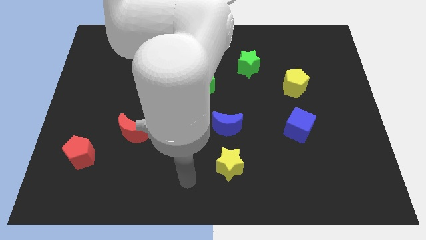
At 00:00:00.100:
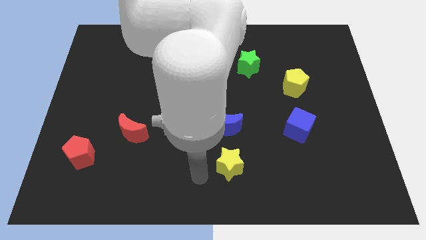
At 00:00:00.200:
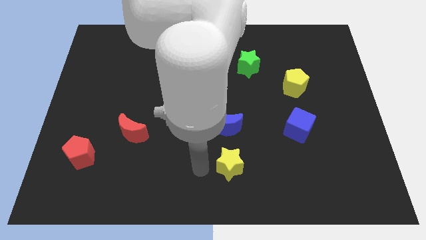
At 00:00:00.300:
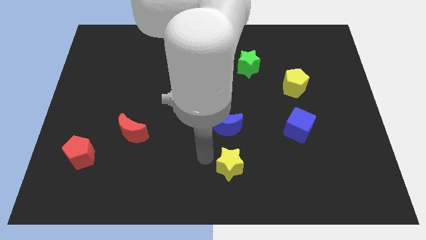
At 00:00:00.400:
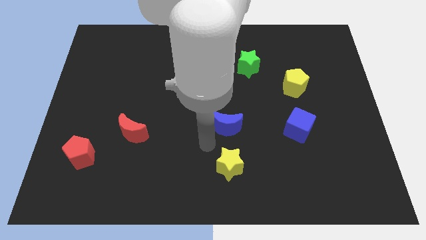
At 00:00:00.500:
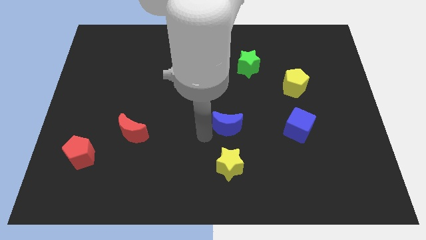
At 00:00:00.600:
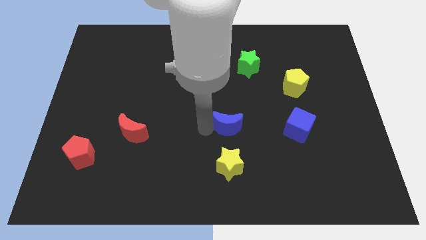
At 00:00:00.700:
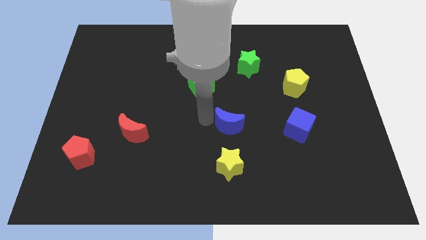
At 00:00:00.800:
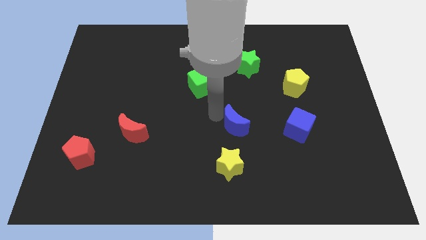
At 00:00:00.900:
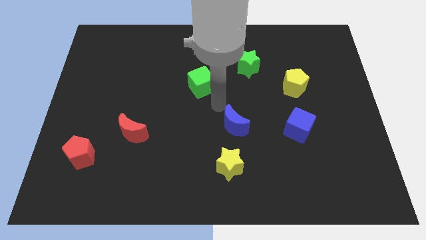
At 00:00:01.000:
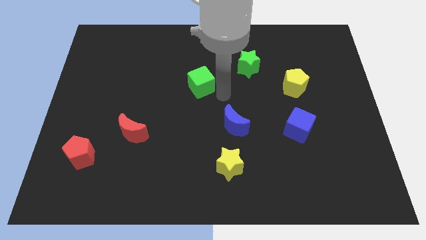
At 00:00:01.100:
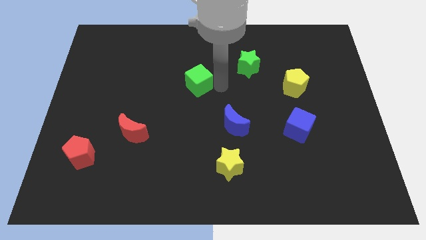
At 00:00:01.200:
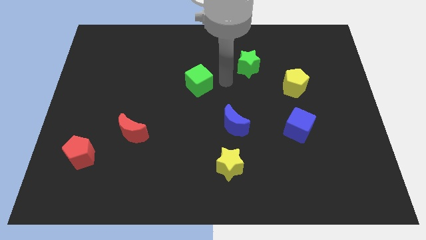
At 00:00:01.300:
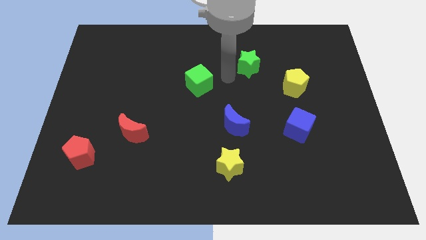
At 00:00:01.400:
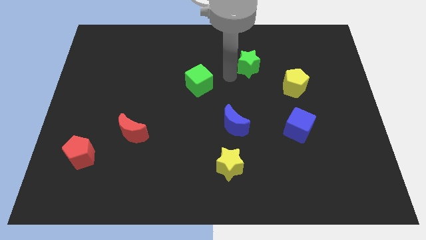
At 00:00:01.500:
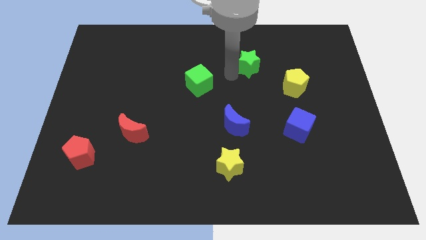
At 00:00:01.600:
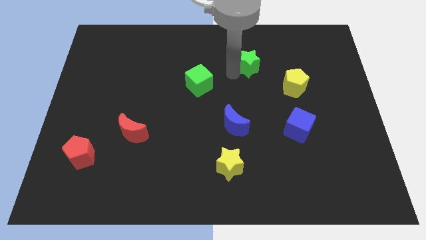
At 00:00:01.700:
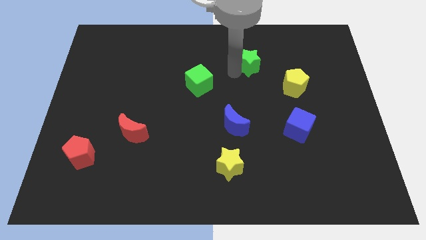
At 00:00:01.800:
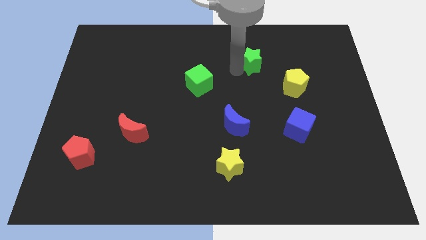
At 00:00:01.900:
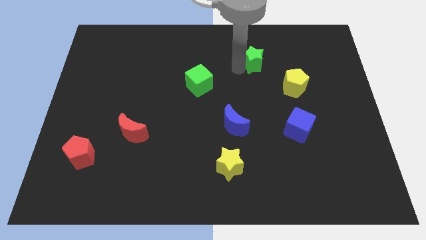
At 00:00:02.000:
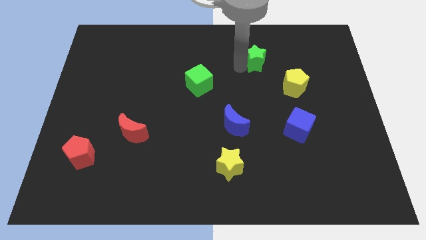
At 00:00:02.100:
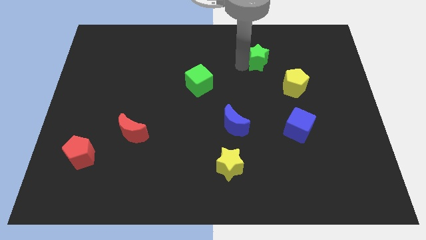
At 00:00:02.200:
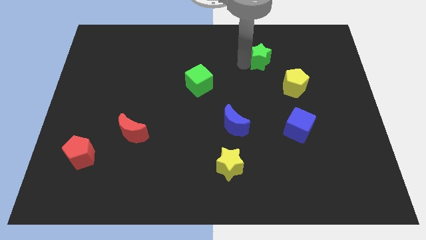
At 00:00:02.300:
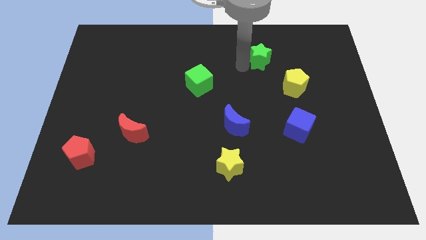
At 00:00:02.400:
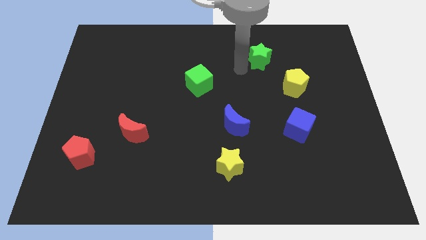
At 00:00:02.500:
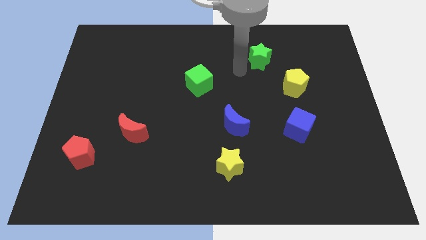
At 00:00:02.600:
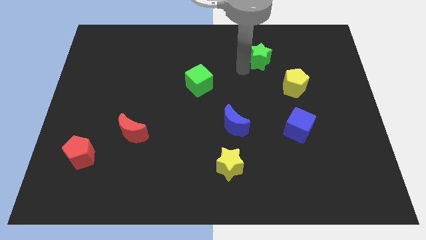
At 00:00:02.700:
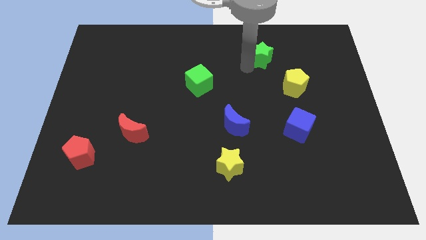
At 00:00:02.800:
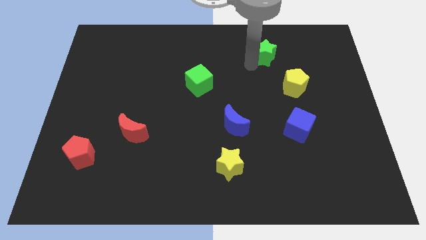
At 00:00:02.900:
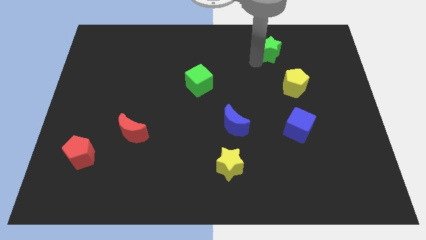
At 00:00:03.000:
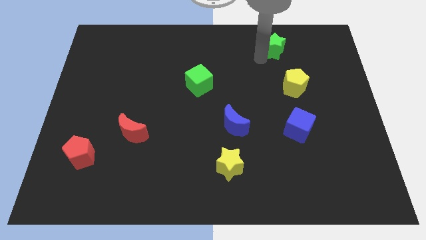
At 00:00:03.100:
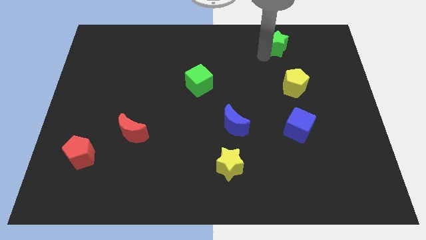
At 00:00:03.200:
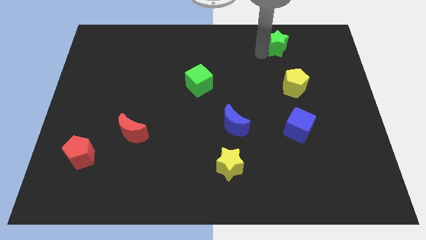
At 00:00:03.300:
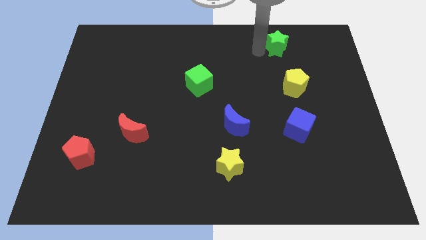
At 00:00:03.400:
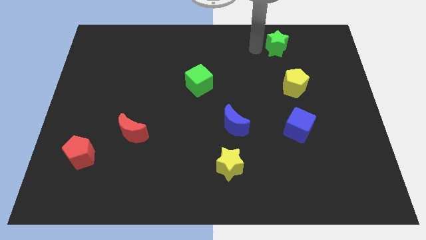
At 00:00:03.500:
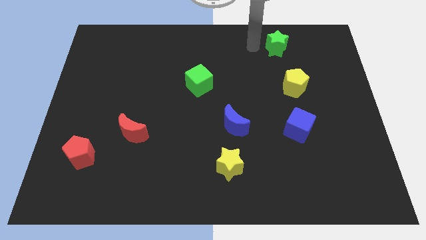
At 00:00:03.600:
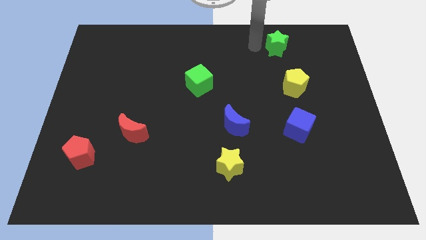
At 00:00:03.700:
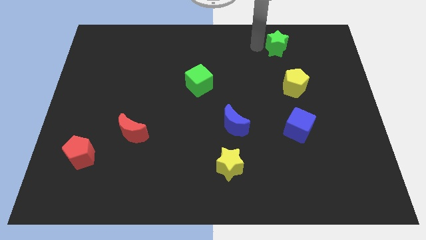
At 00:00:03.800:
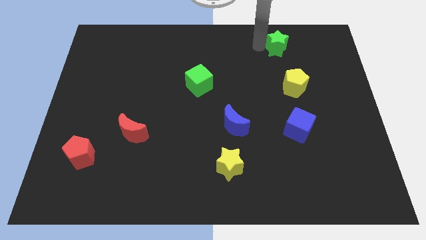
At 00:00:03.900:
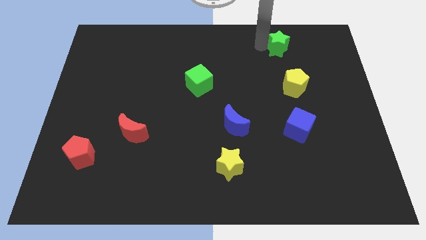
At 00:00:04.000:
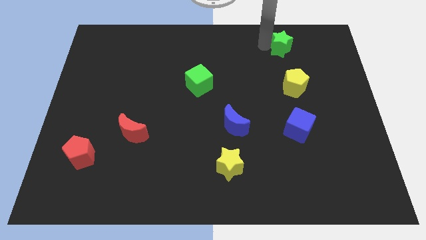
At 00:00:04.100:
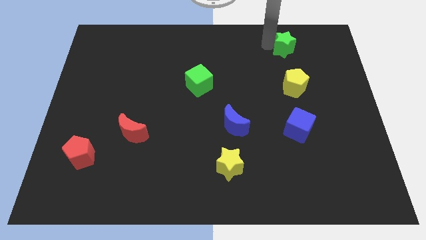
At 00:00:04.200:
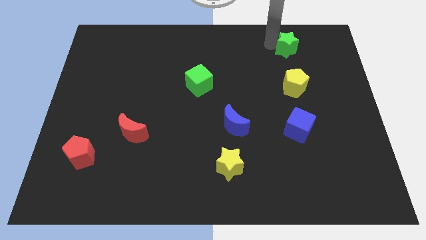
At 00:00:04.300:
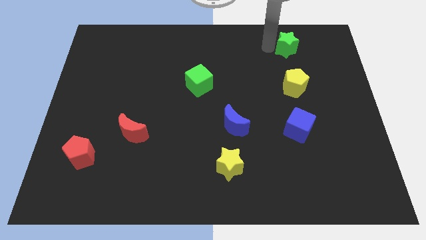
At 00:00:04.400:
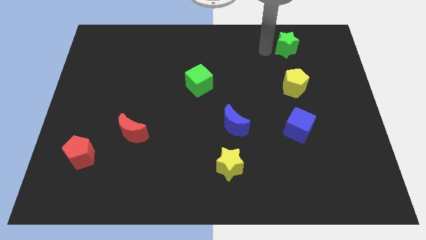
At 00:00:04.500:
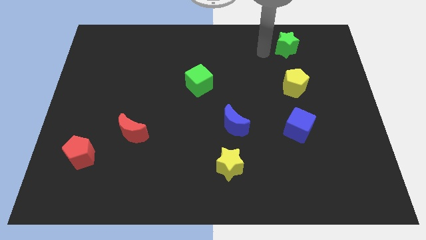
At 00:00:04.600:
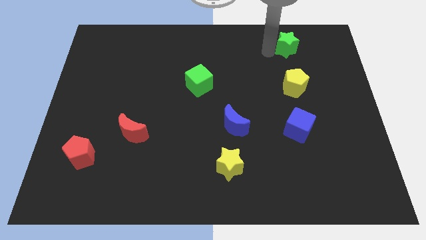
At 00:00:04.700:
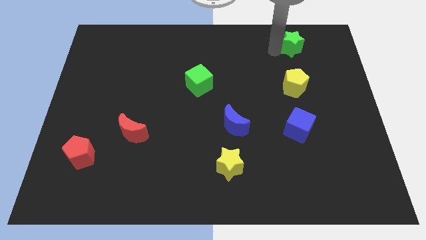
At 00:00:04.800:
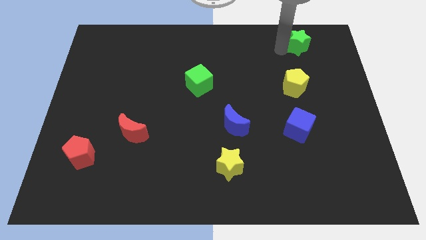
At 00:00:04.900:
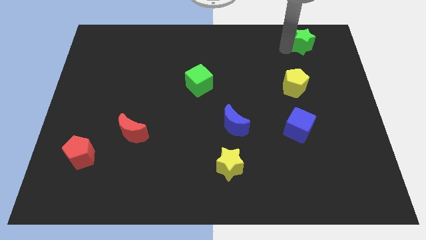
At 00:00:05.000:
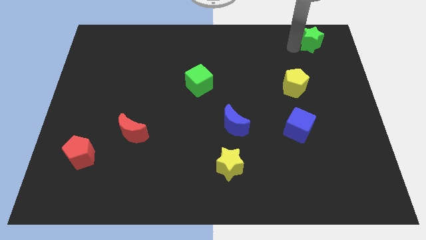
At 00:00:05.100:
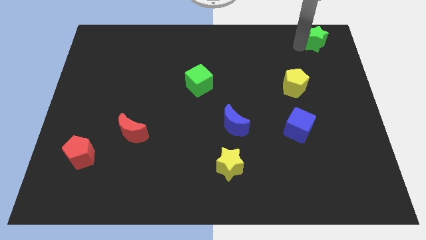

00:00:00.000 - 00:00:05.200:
put the green star to the top right corner

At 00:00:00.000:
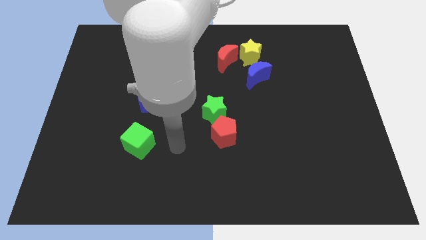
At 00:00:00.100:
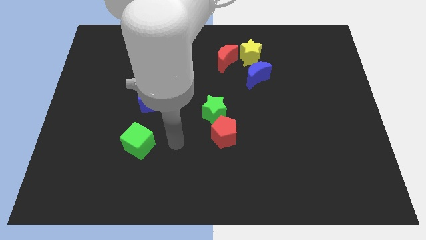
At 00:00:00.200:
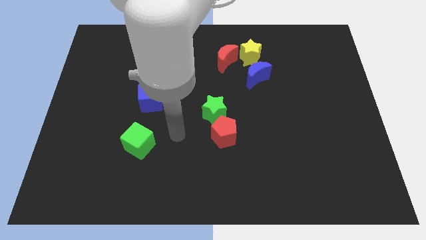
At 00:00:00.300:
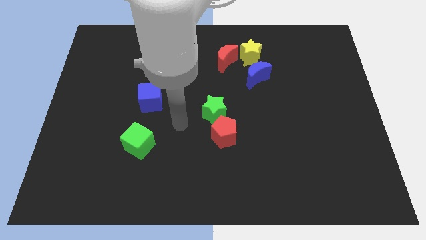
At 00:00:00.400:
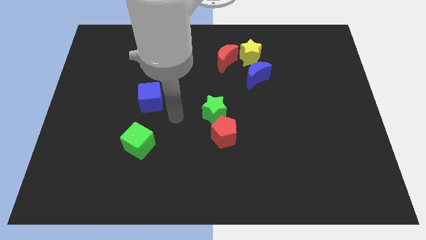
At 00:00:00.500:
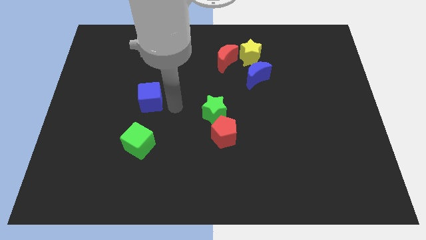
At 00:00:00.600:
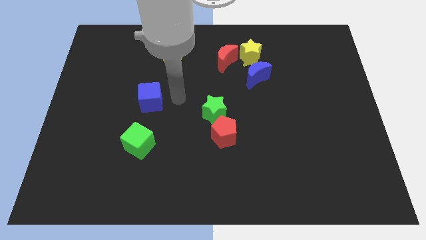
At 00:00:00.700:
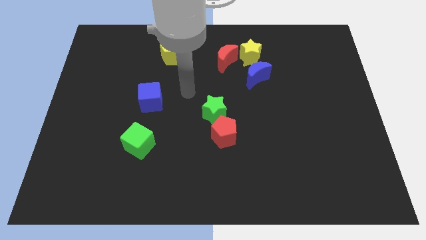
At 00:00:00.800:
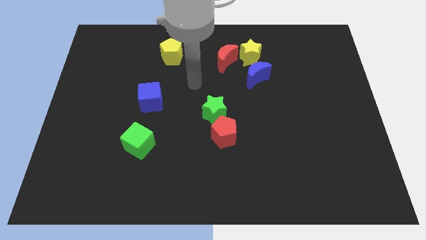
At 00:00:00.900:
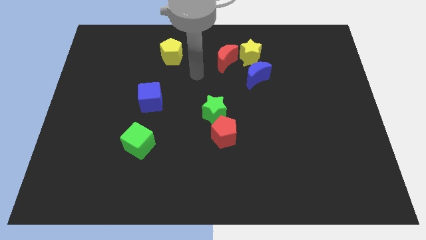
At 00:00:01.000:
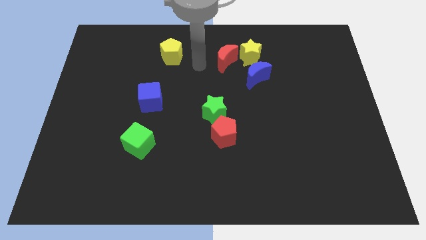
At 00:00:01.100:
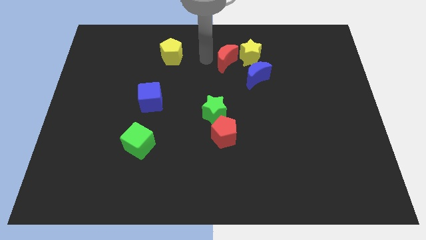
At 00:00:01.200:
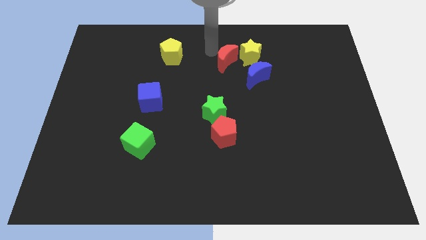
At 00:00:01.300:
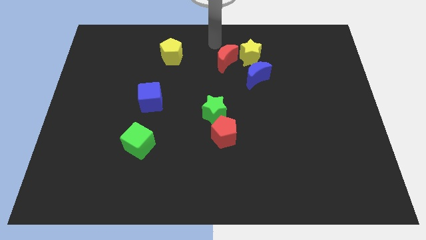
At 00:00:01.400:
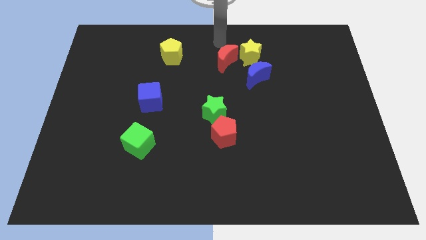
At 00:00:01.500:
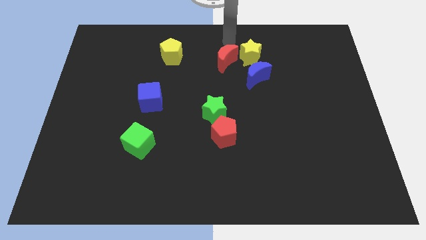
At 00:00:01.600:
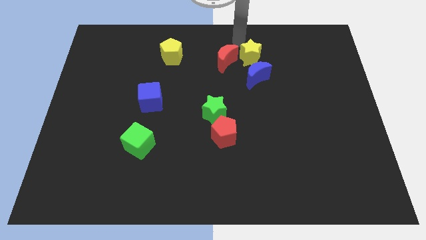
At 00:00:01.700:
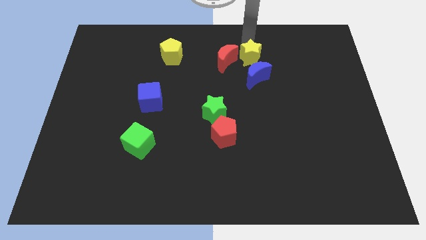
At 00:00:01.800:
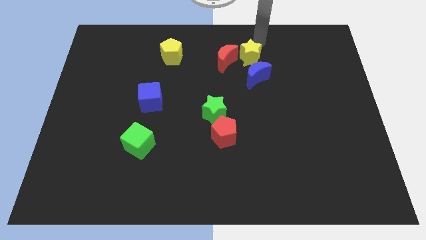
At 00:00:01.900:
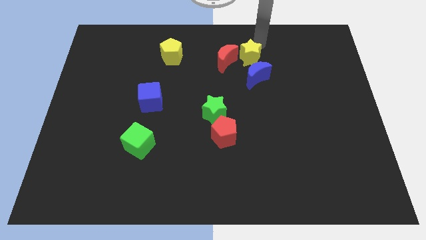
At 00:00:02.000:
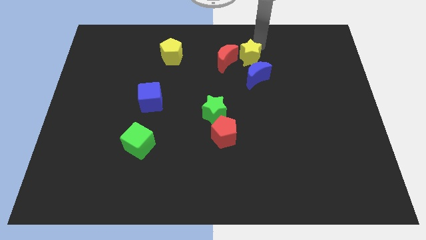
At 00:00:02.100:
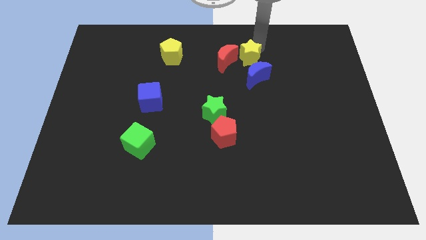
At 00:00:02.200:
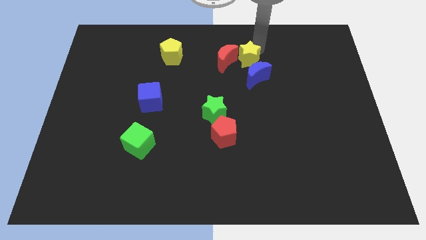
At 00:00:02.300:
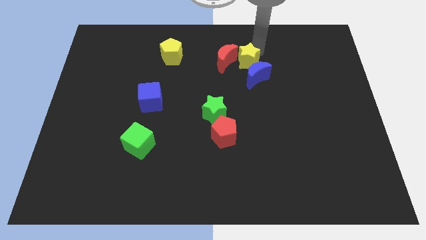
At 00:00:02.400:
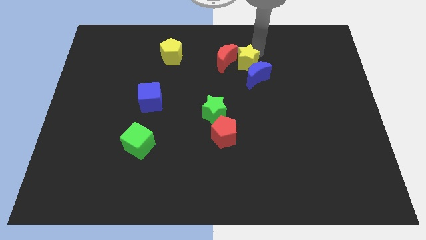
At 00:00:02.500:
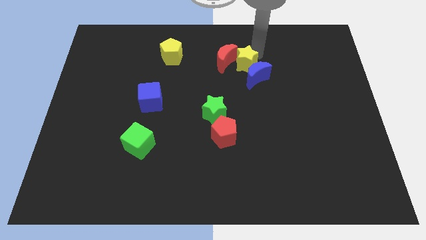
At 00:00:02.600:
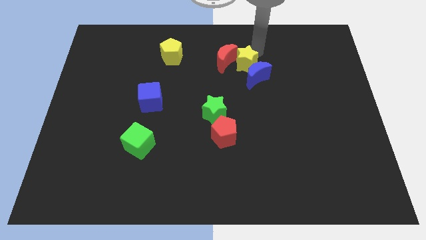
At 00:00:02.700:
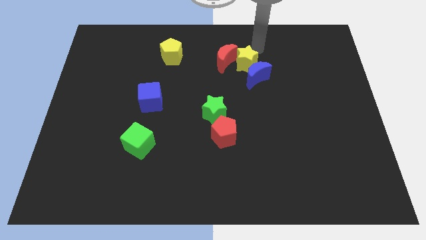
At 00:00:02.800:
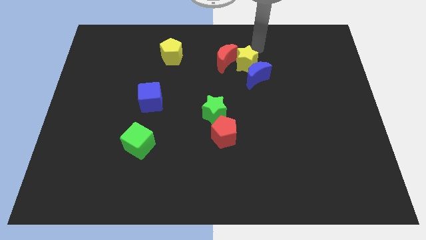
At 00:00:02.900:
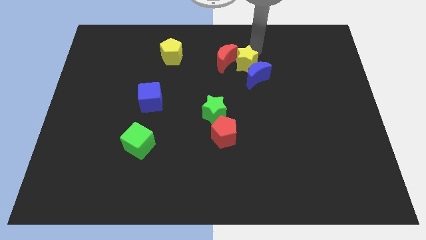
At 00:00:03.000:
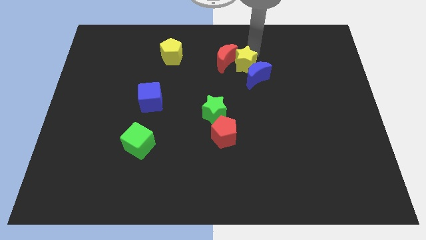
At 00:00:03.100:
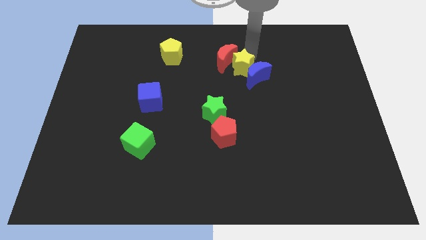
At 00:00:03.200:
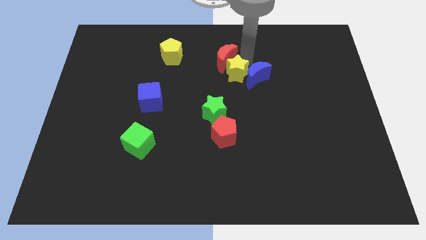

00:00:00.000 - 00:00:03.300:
push the yellow star to the middle
